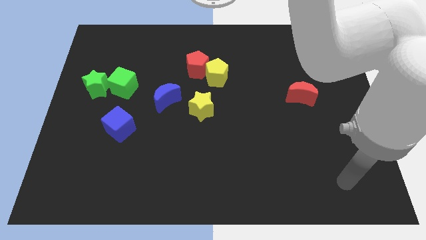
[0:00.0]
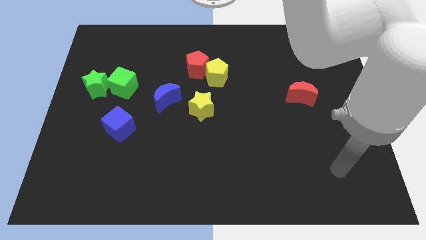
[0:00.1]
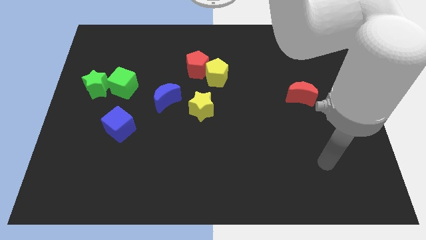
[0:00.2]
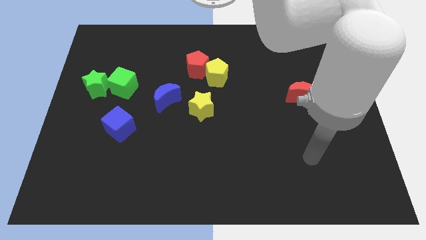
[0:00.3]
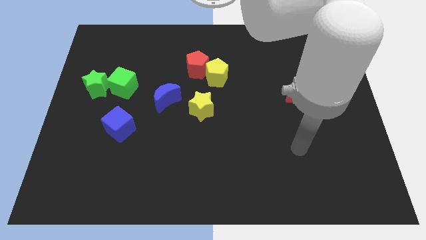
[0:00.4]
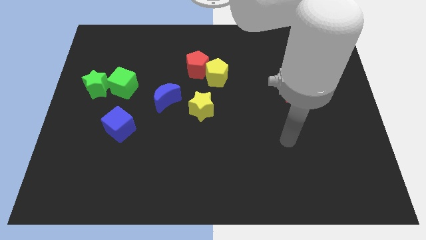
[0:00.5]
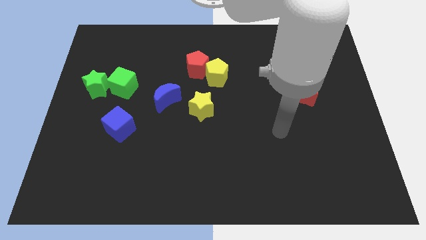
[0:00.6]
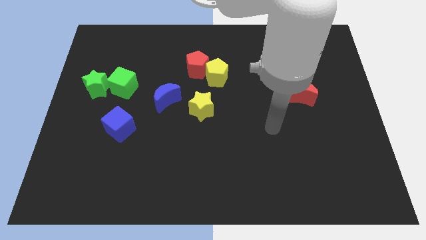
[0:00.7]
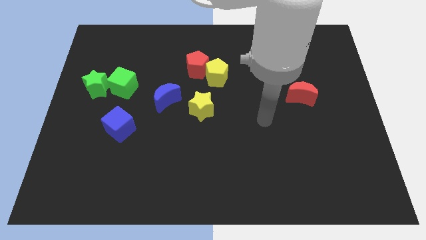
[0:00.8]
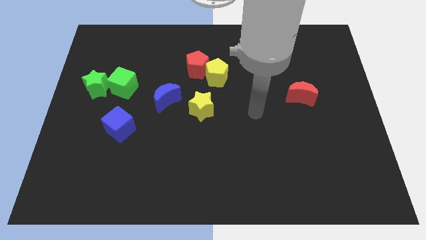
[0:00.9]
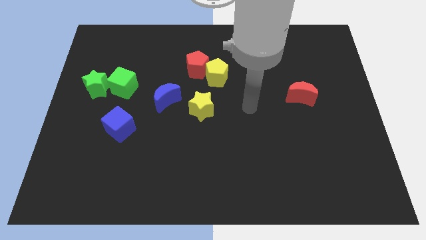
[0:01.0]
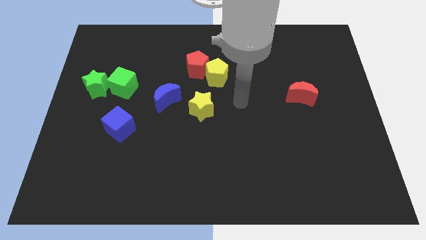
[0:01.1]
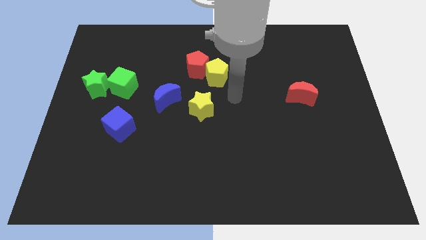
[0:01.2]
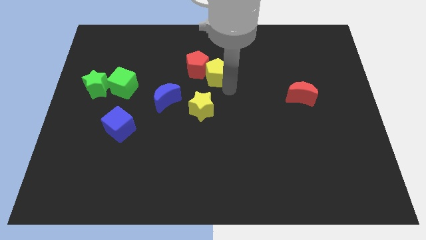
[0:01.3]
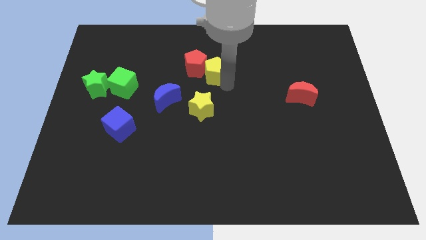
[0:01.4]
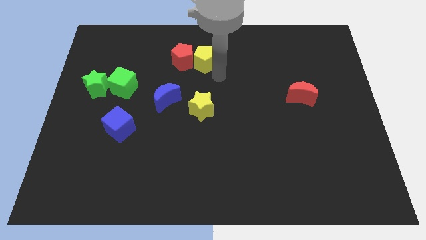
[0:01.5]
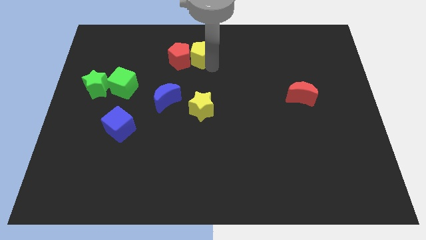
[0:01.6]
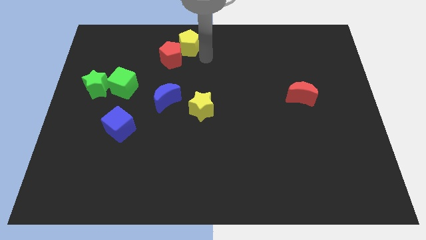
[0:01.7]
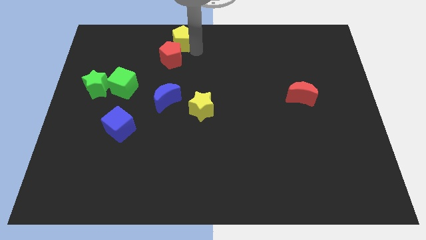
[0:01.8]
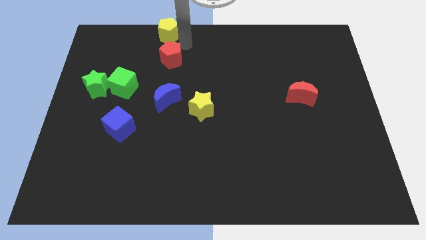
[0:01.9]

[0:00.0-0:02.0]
move the red pentagon away from the yellow pentagon

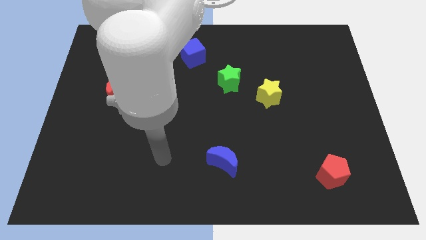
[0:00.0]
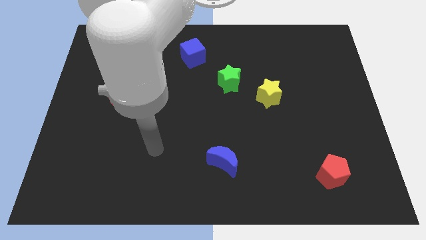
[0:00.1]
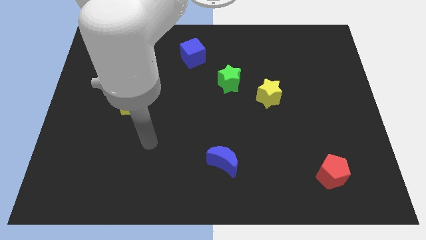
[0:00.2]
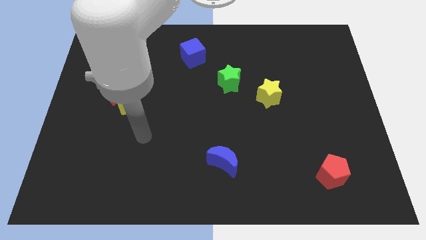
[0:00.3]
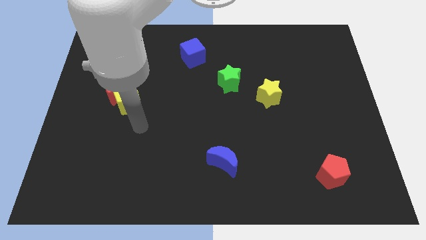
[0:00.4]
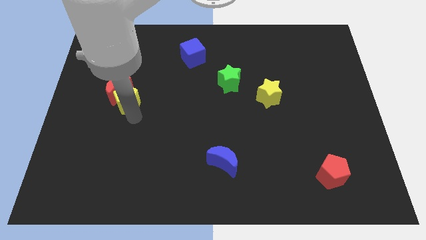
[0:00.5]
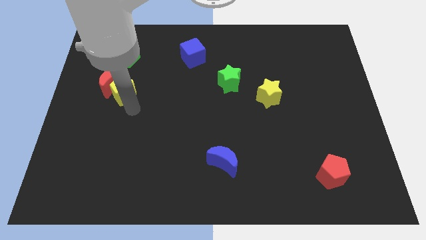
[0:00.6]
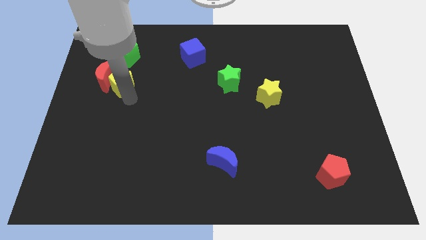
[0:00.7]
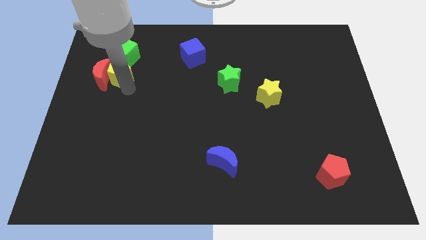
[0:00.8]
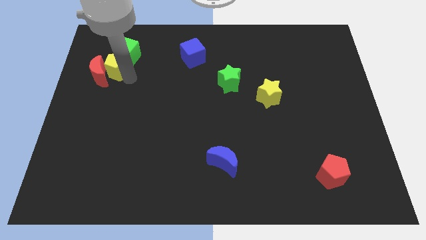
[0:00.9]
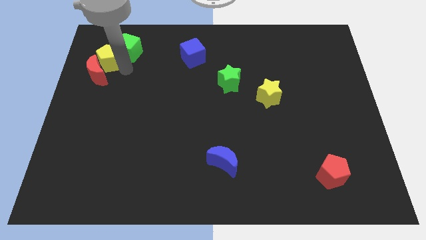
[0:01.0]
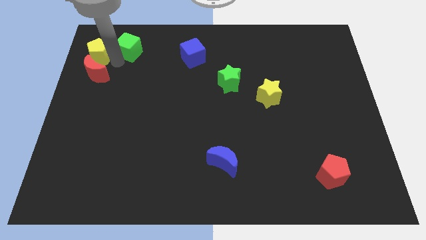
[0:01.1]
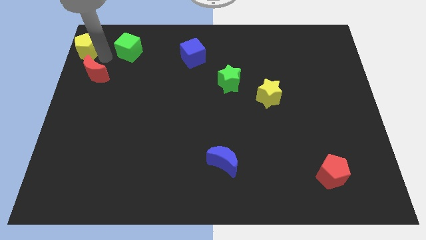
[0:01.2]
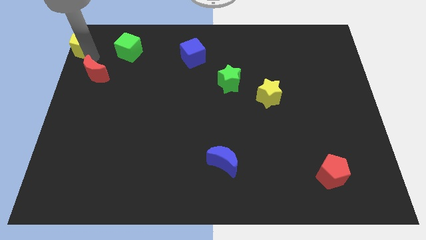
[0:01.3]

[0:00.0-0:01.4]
separate the red moon from the yellow pentagon

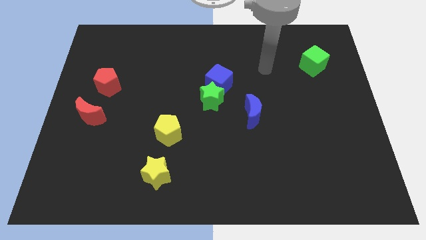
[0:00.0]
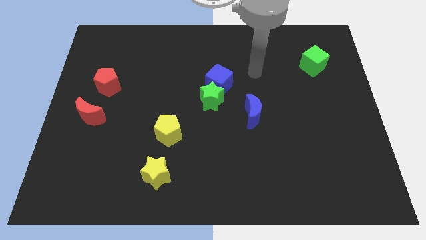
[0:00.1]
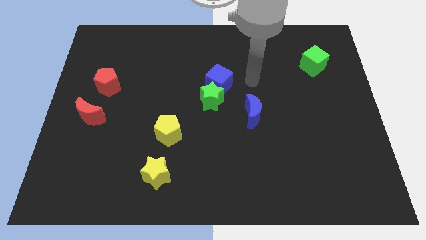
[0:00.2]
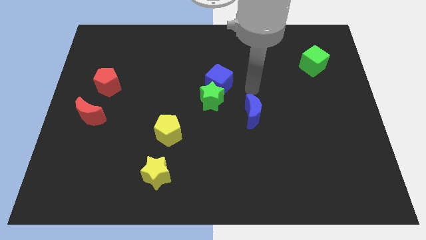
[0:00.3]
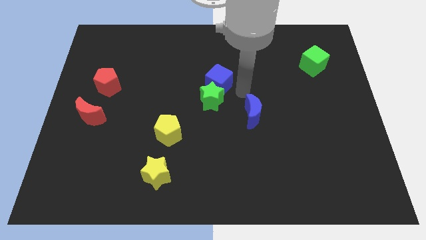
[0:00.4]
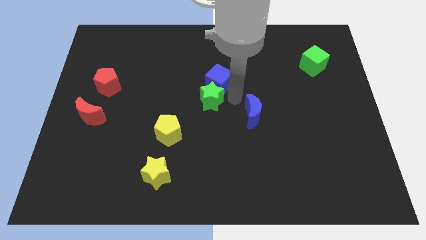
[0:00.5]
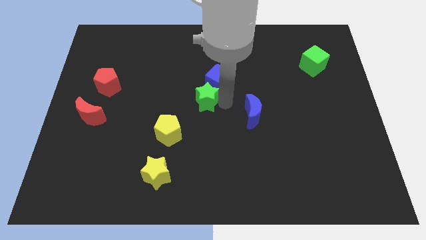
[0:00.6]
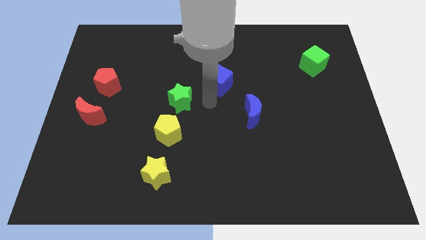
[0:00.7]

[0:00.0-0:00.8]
move the blue cube away from the green star

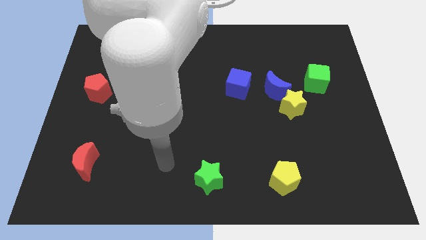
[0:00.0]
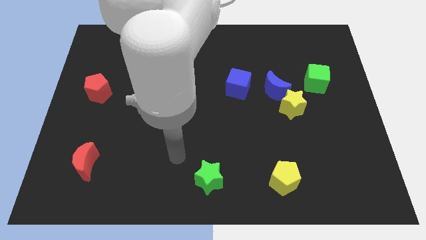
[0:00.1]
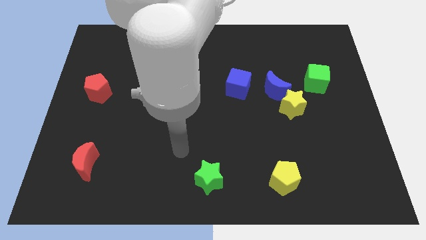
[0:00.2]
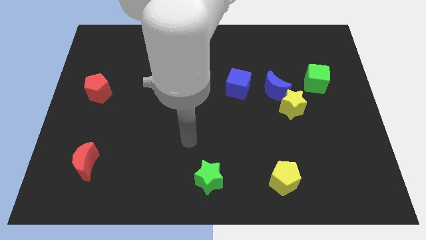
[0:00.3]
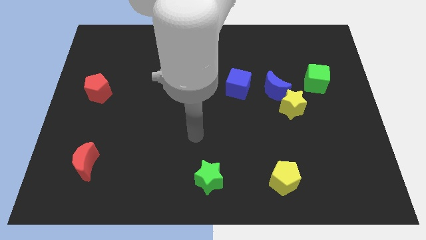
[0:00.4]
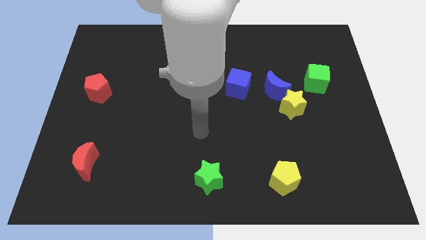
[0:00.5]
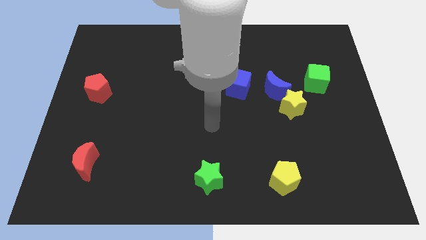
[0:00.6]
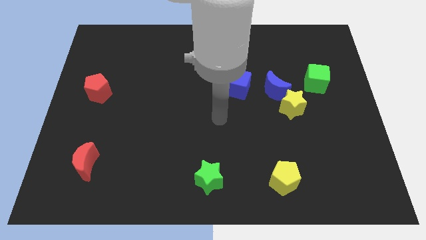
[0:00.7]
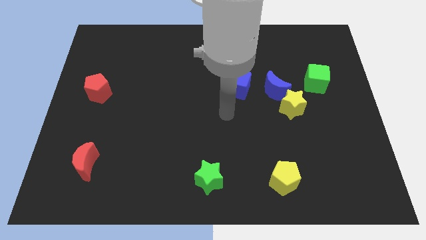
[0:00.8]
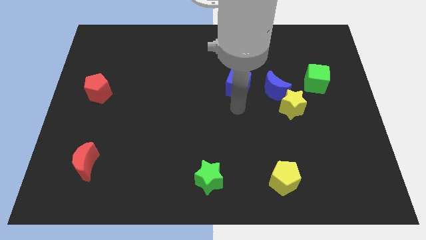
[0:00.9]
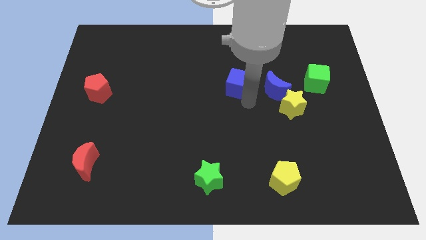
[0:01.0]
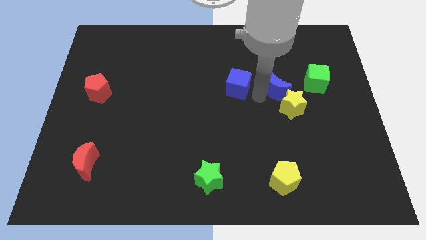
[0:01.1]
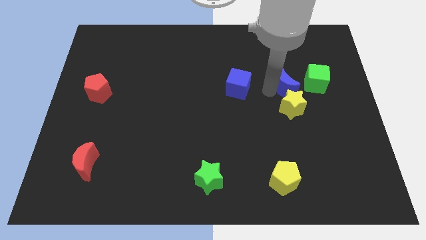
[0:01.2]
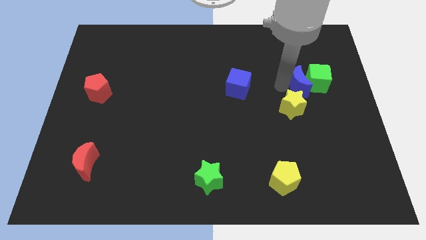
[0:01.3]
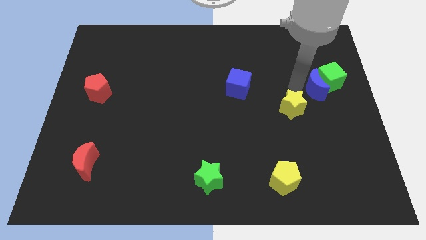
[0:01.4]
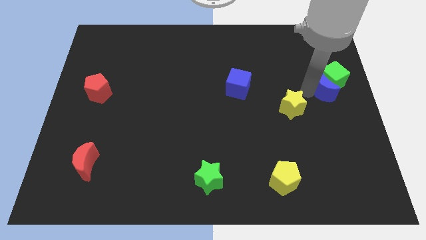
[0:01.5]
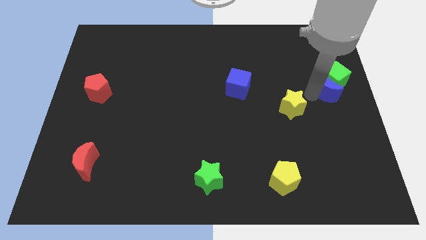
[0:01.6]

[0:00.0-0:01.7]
pull the yellow star apart from the blue moon

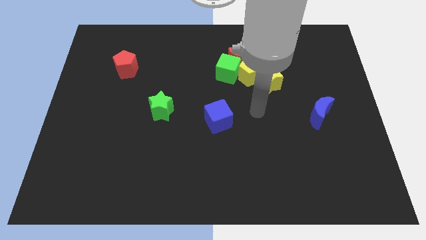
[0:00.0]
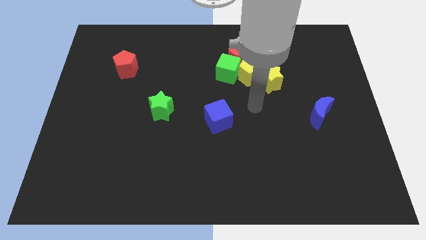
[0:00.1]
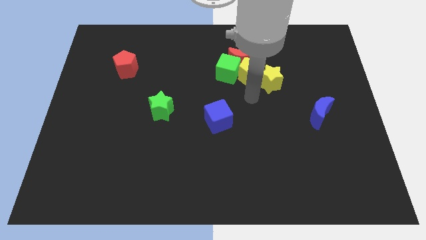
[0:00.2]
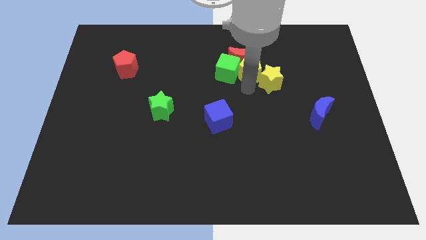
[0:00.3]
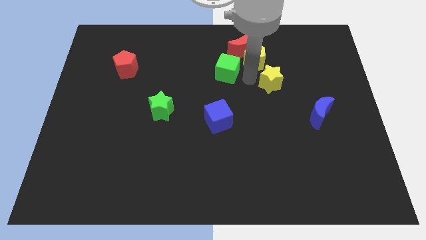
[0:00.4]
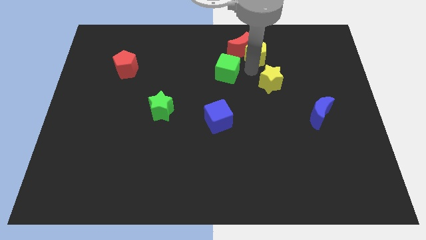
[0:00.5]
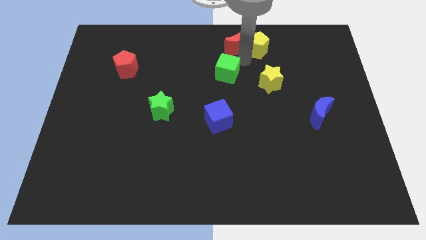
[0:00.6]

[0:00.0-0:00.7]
move the green cube away from the red moon and yellow pentagon

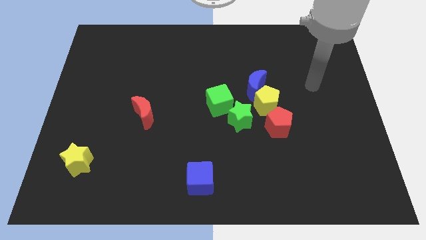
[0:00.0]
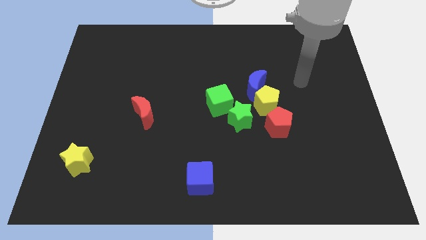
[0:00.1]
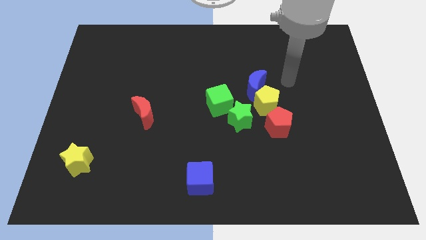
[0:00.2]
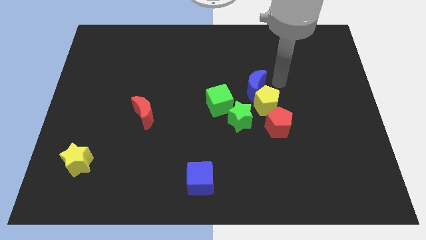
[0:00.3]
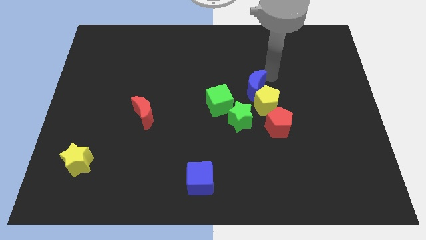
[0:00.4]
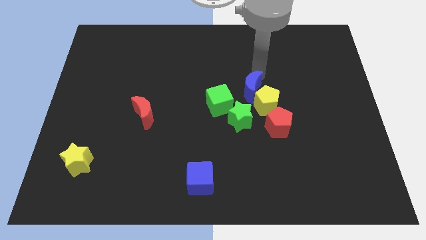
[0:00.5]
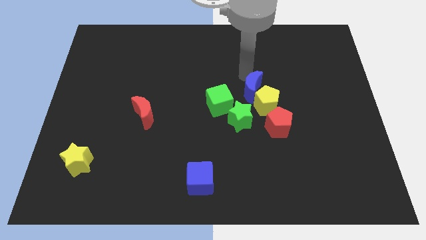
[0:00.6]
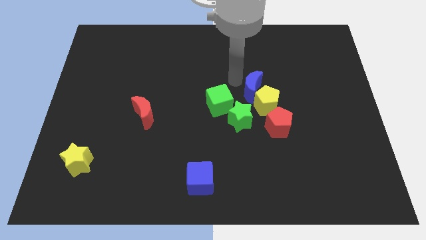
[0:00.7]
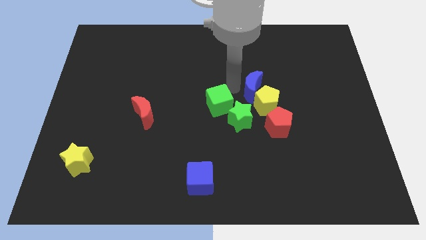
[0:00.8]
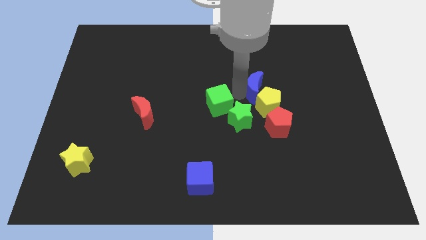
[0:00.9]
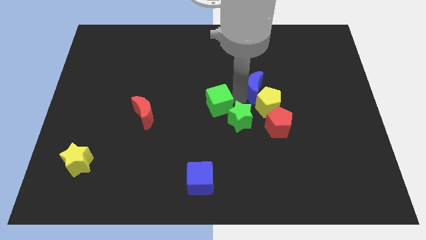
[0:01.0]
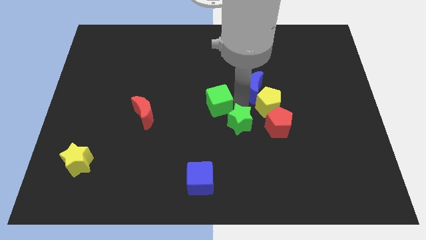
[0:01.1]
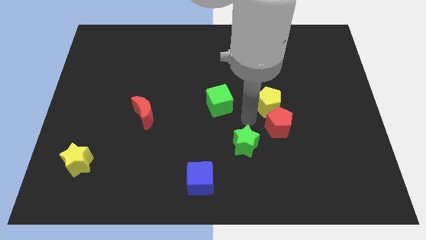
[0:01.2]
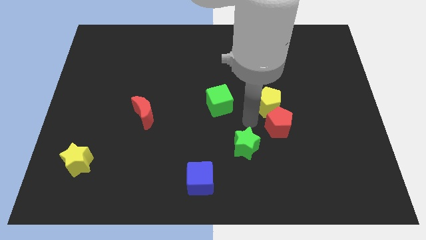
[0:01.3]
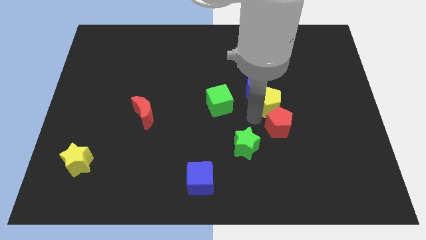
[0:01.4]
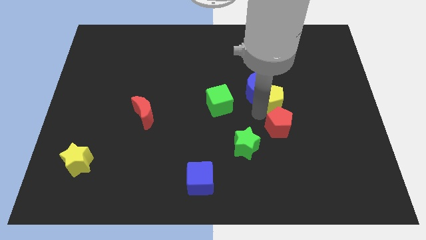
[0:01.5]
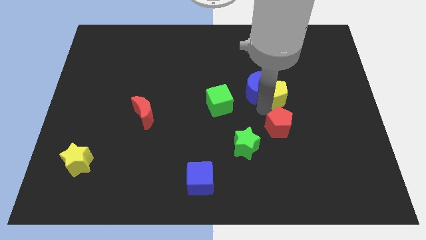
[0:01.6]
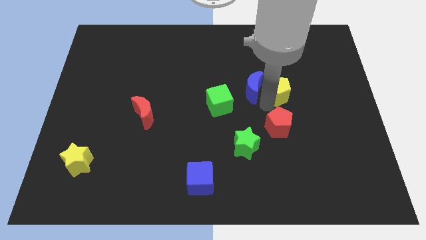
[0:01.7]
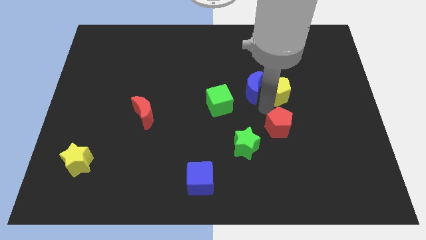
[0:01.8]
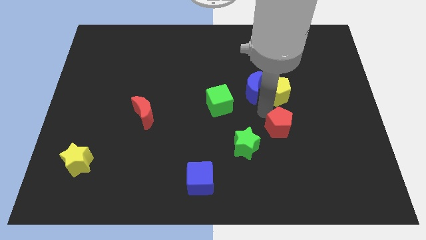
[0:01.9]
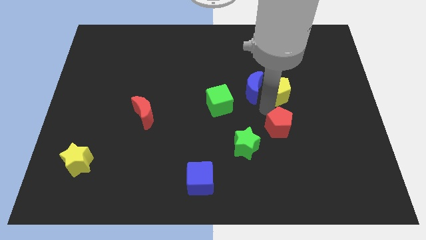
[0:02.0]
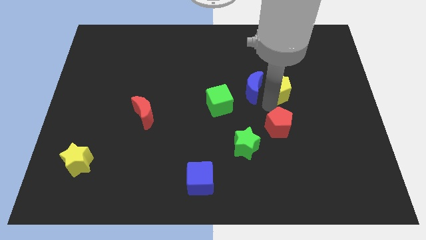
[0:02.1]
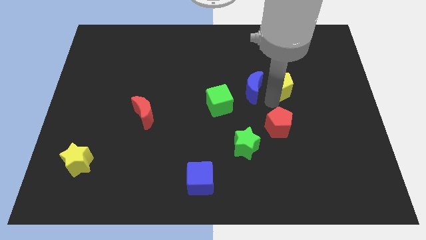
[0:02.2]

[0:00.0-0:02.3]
move the yellow pentagon away from the blue moon, red pentagon, and green star

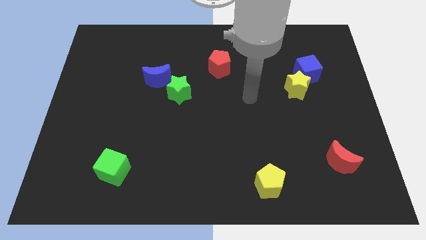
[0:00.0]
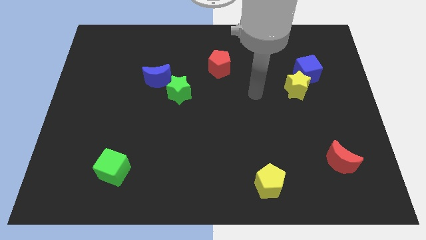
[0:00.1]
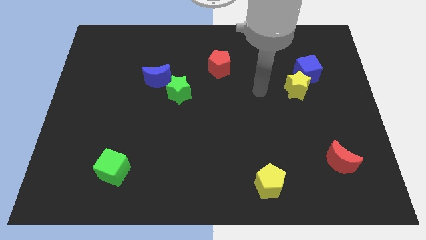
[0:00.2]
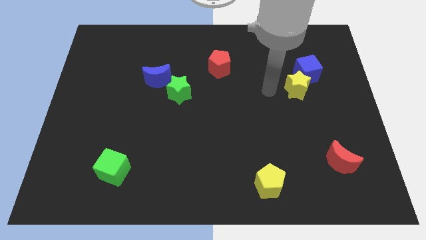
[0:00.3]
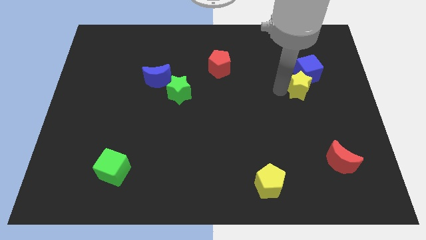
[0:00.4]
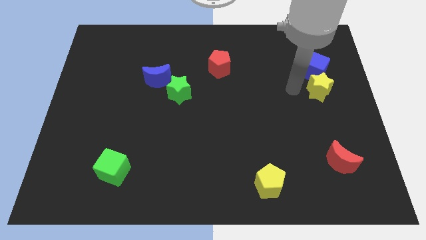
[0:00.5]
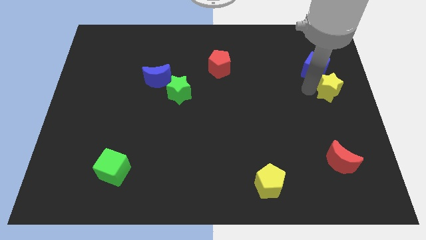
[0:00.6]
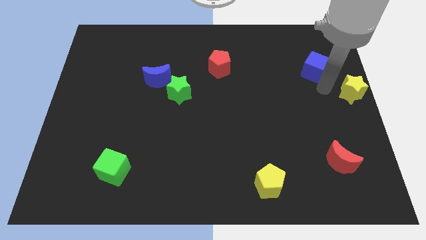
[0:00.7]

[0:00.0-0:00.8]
move the blue cube away from the yellow star
